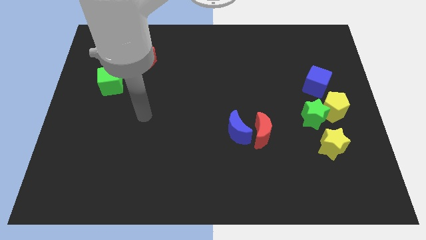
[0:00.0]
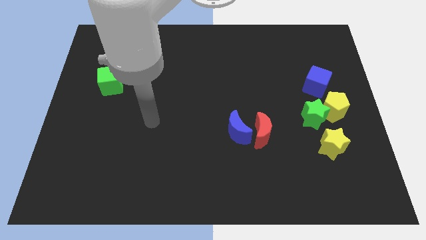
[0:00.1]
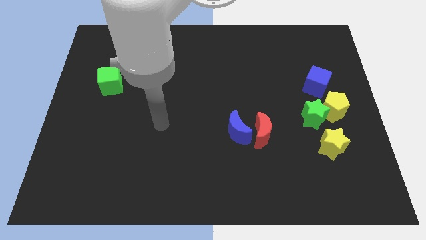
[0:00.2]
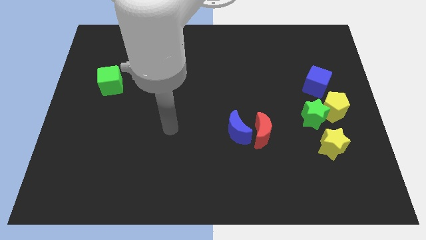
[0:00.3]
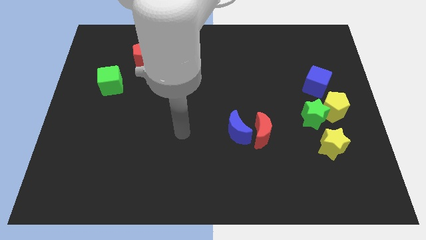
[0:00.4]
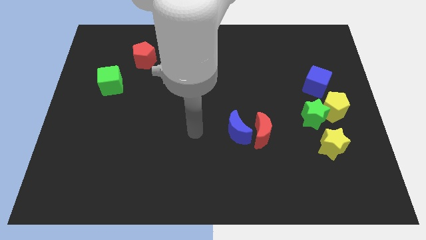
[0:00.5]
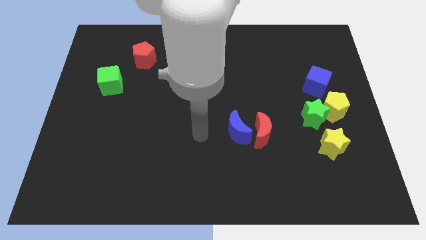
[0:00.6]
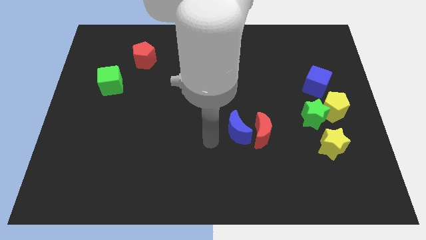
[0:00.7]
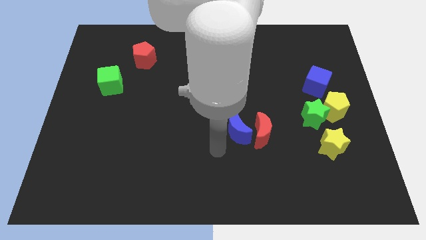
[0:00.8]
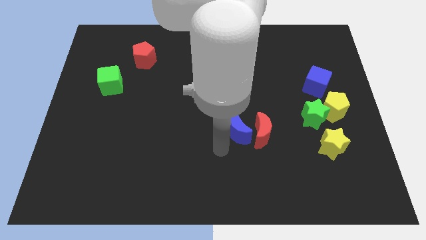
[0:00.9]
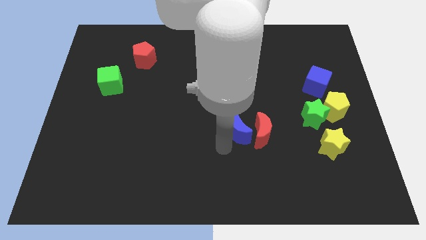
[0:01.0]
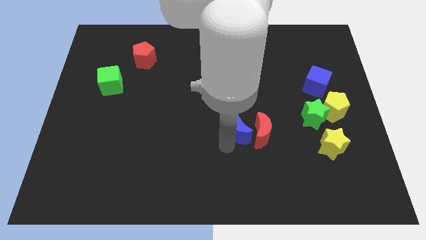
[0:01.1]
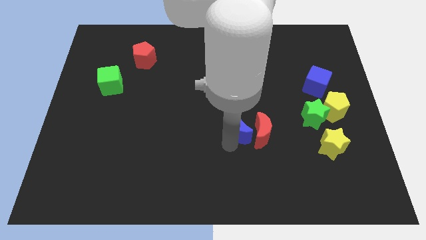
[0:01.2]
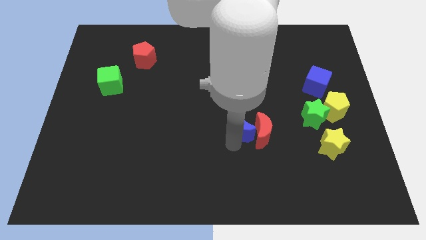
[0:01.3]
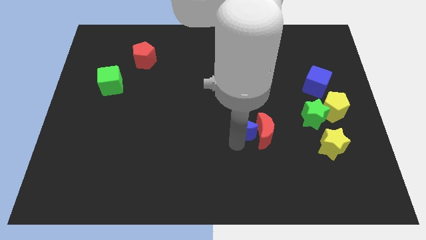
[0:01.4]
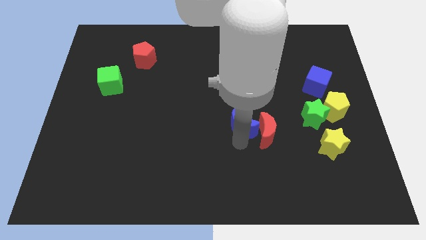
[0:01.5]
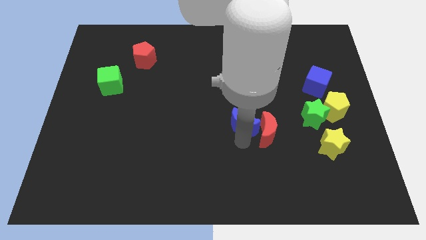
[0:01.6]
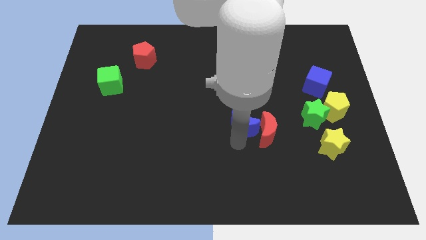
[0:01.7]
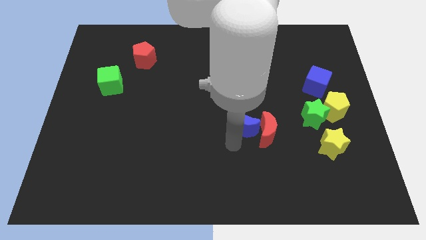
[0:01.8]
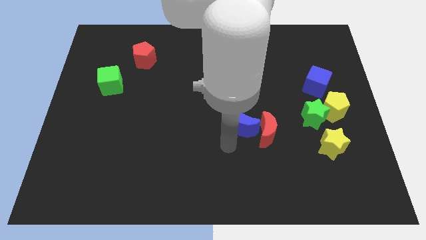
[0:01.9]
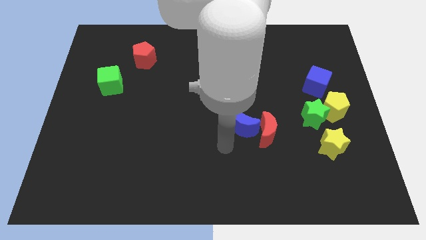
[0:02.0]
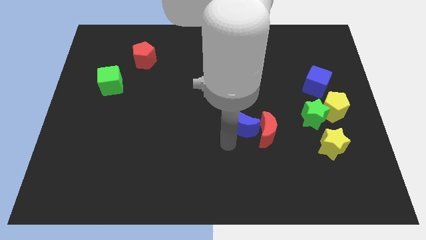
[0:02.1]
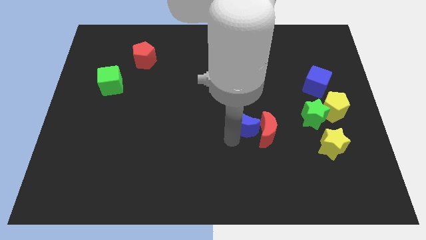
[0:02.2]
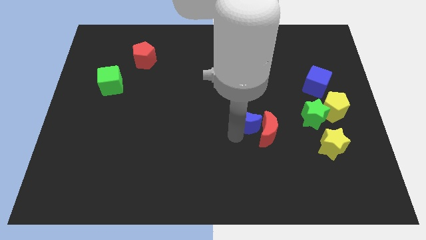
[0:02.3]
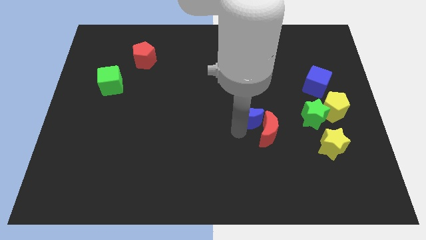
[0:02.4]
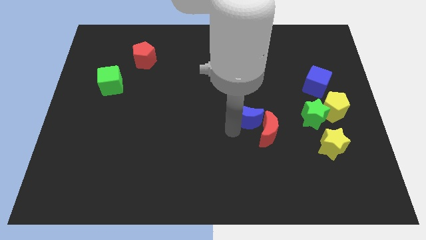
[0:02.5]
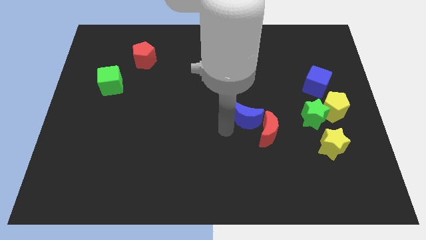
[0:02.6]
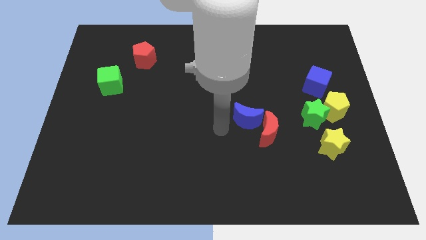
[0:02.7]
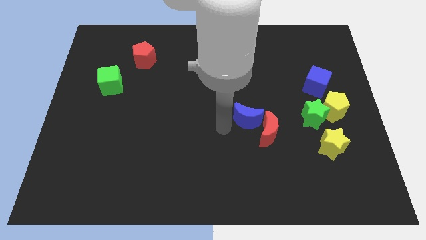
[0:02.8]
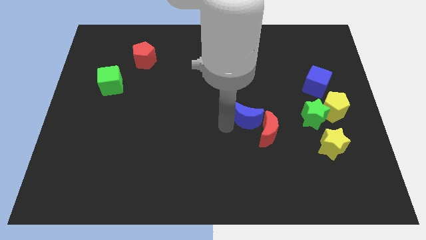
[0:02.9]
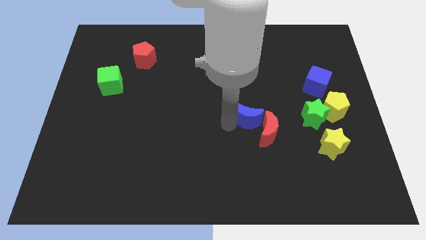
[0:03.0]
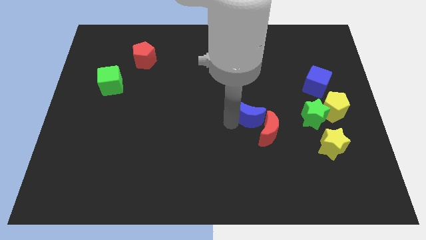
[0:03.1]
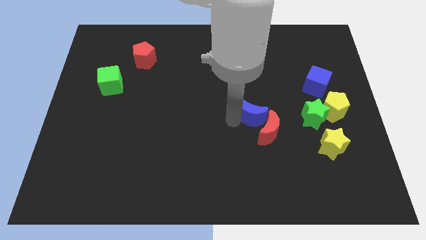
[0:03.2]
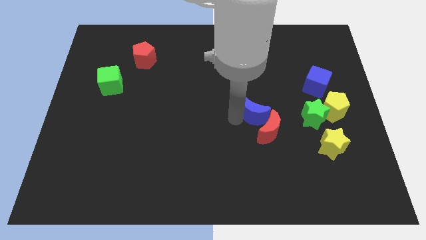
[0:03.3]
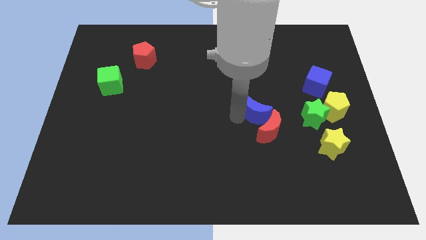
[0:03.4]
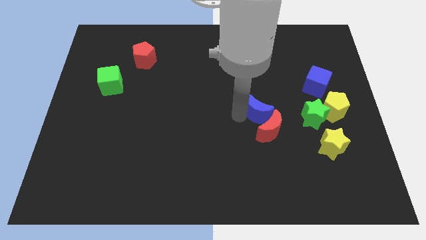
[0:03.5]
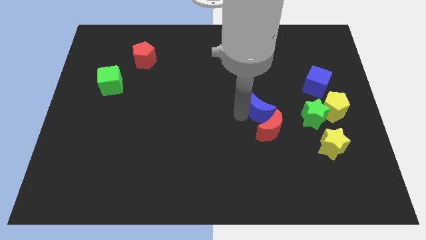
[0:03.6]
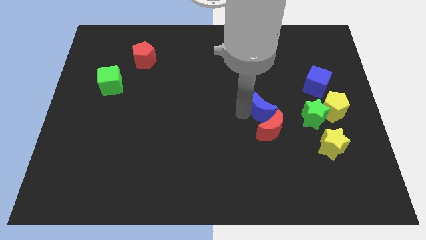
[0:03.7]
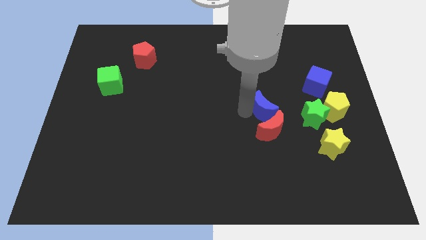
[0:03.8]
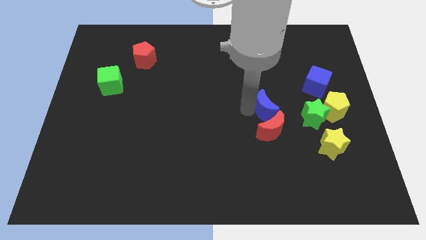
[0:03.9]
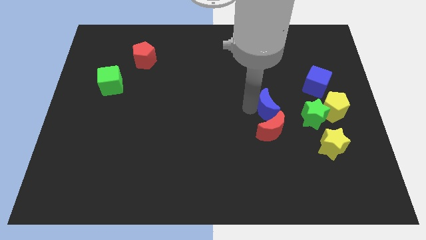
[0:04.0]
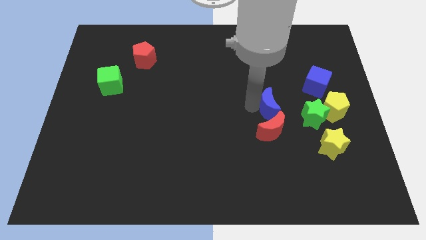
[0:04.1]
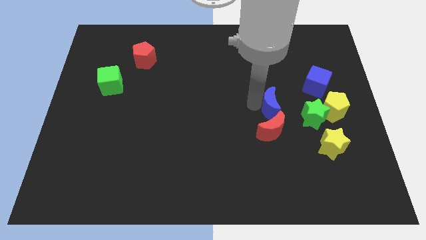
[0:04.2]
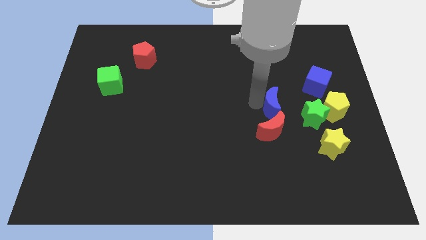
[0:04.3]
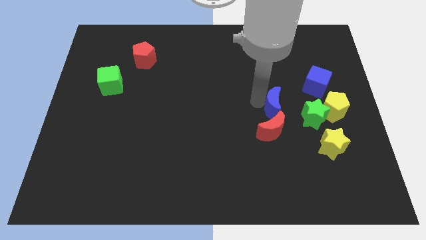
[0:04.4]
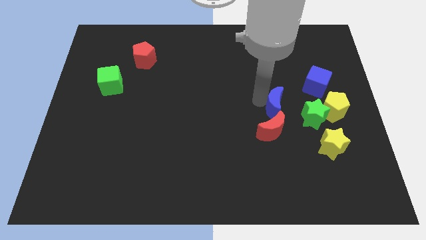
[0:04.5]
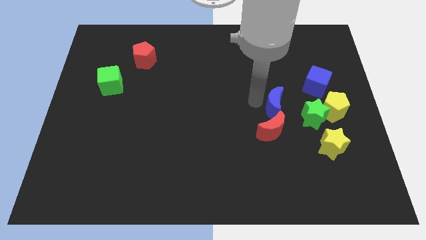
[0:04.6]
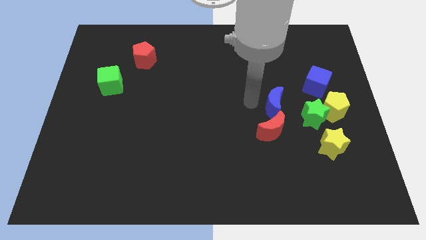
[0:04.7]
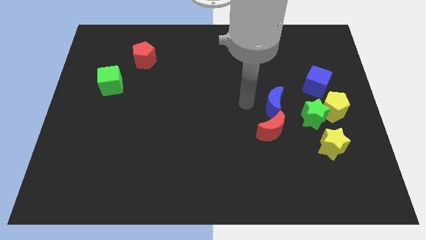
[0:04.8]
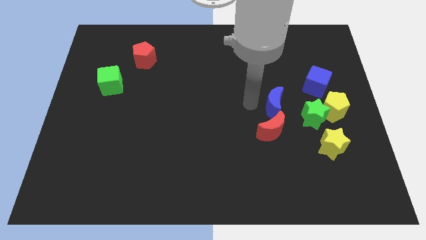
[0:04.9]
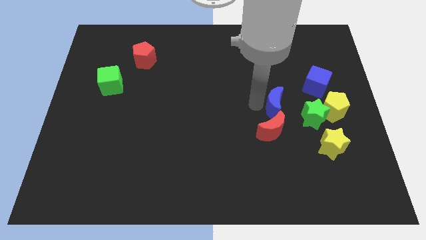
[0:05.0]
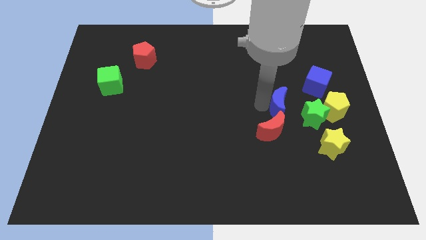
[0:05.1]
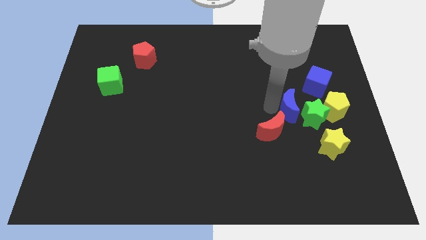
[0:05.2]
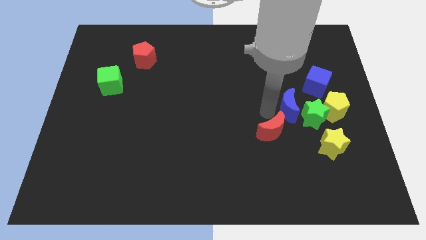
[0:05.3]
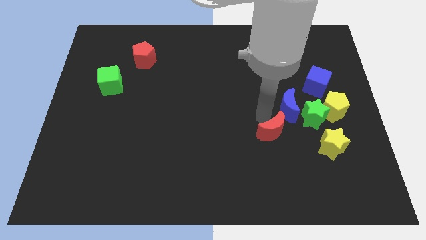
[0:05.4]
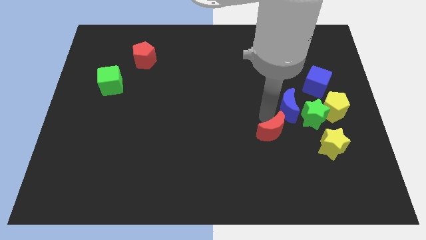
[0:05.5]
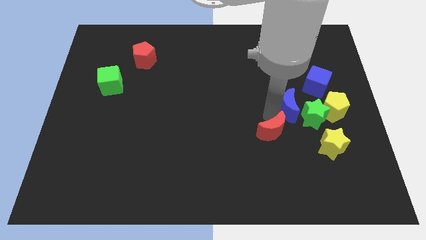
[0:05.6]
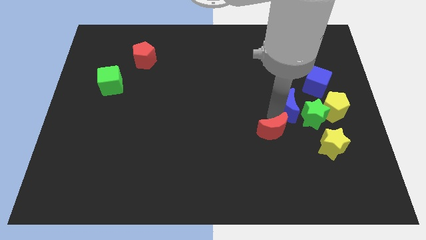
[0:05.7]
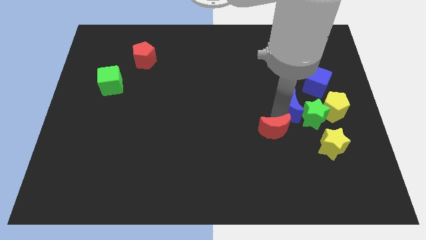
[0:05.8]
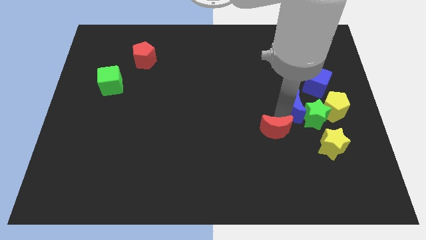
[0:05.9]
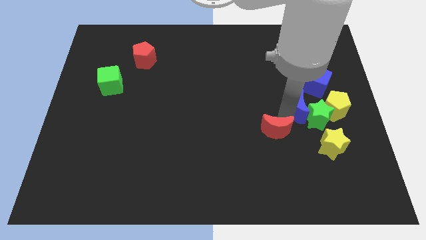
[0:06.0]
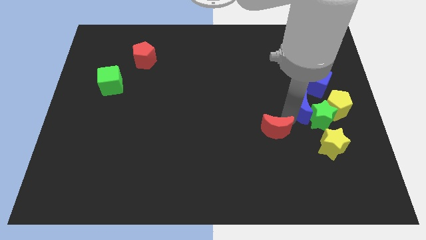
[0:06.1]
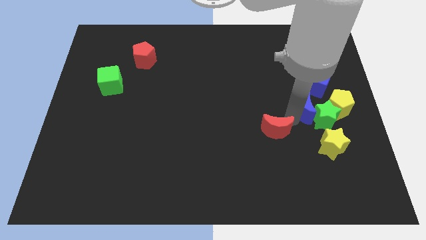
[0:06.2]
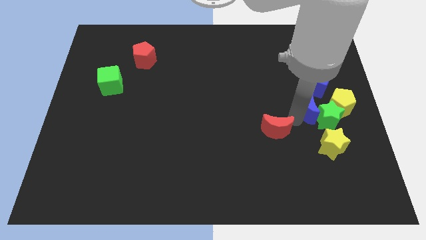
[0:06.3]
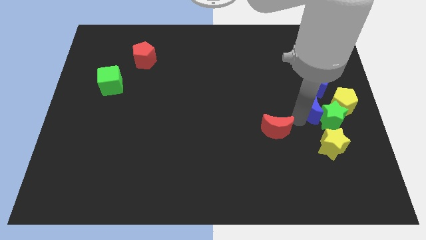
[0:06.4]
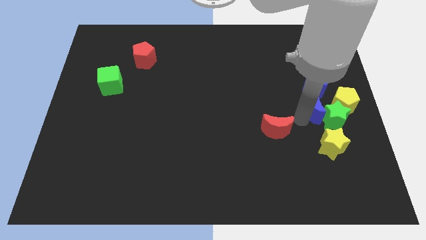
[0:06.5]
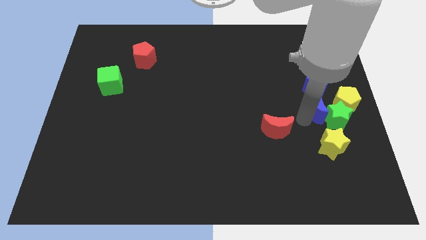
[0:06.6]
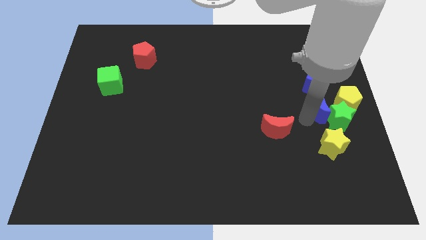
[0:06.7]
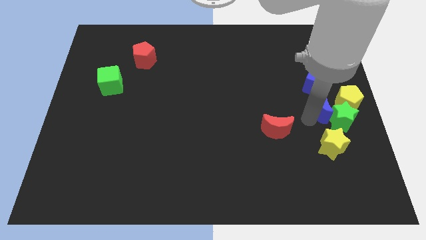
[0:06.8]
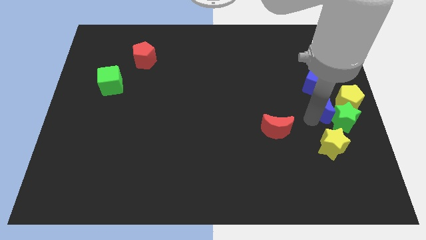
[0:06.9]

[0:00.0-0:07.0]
move the blue moon to the center right
